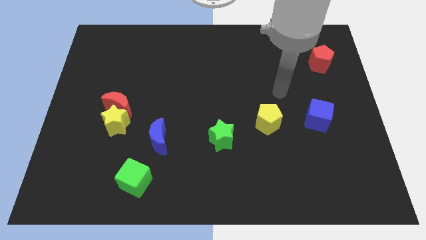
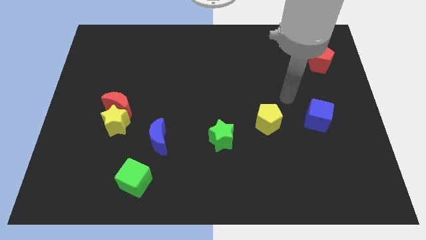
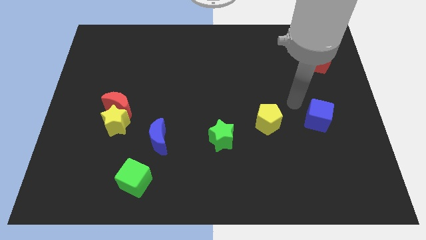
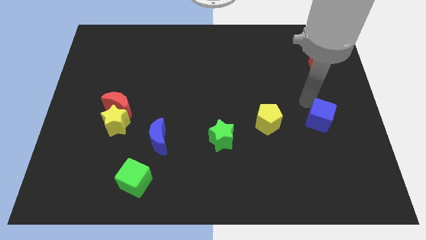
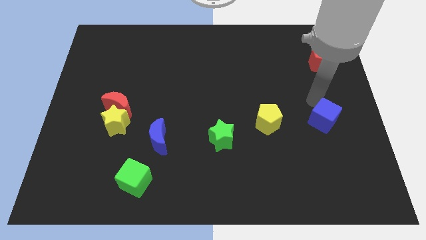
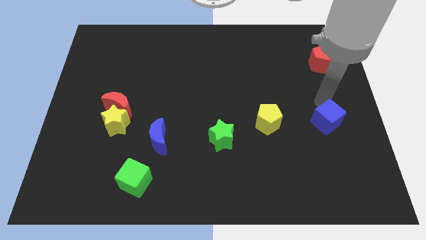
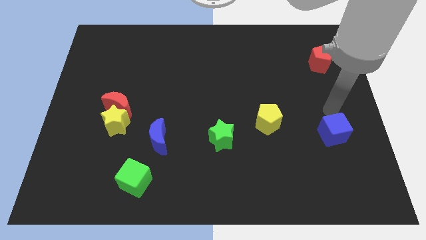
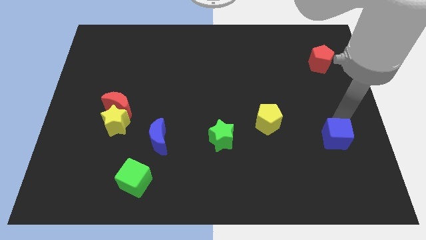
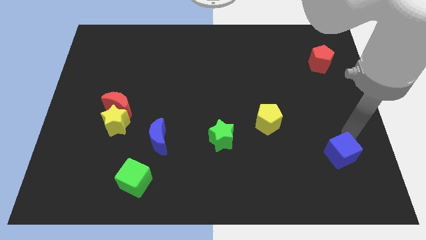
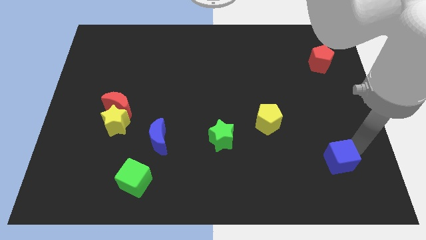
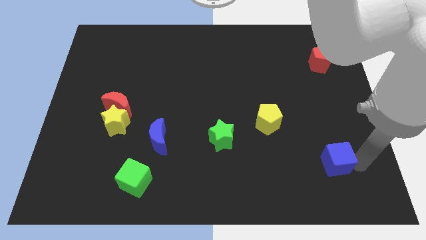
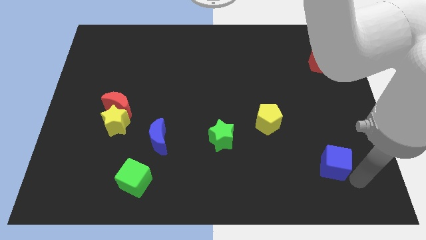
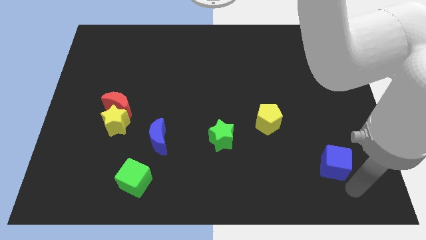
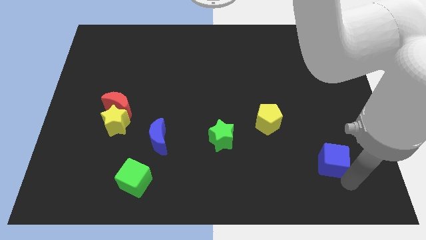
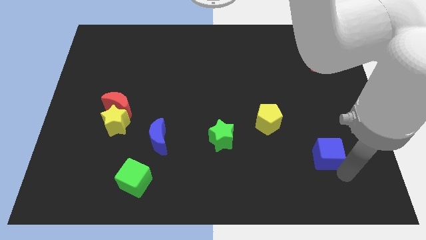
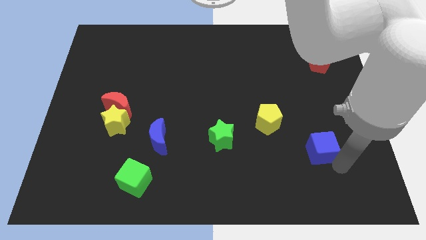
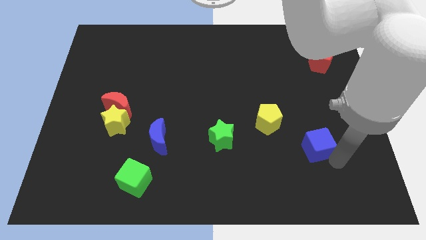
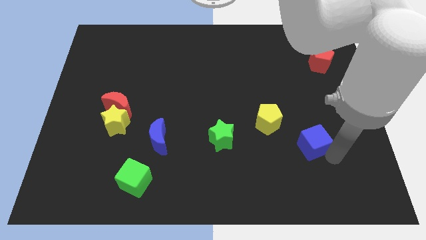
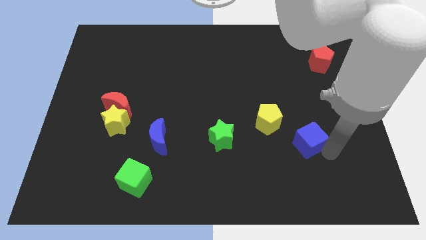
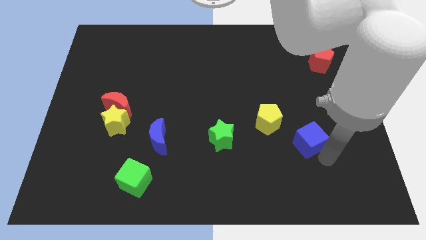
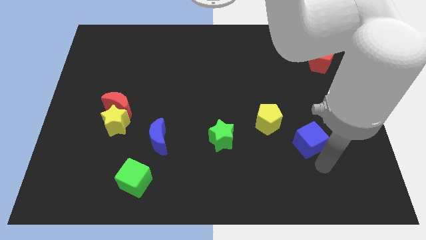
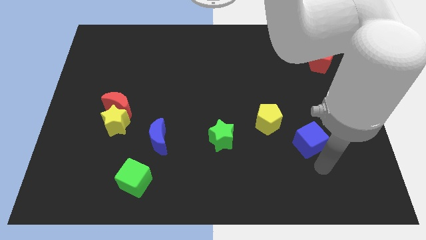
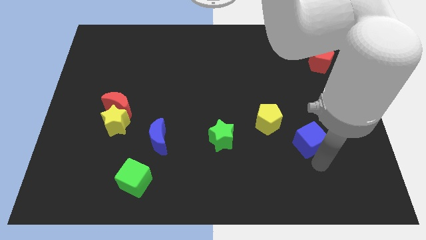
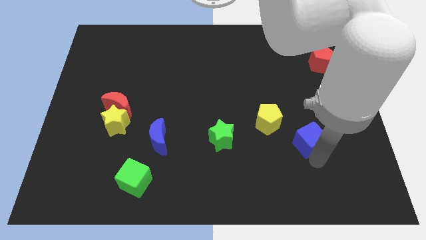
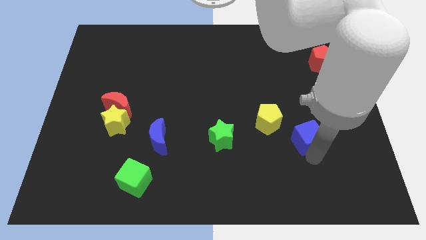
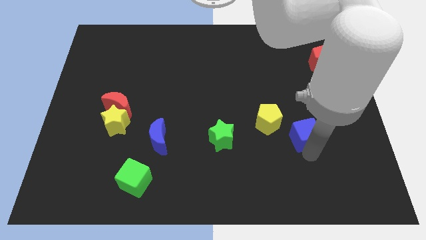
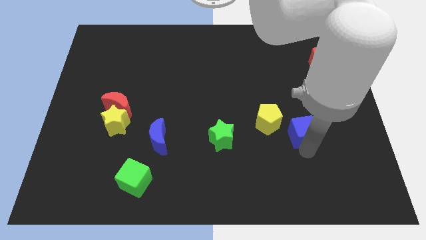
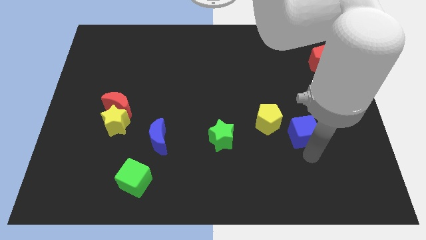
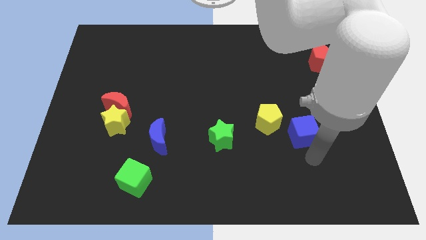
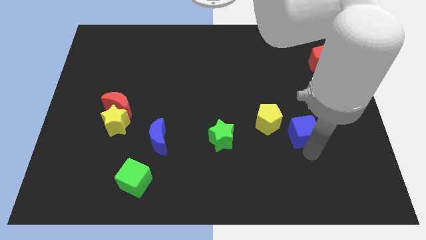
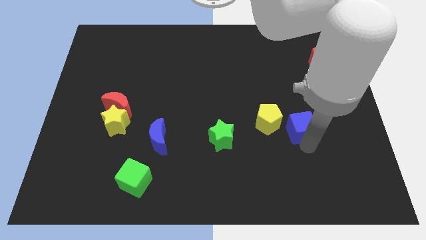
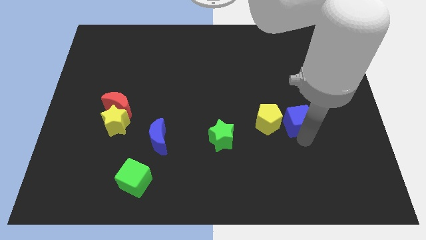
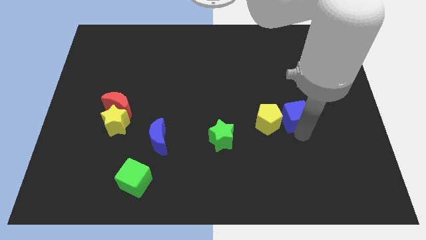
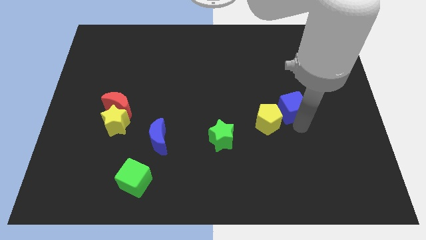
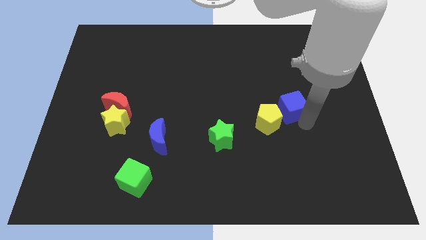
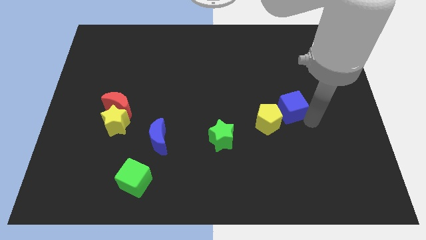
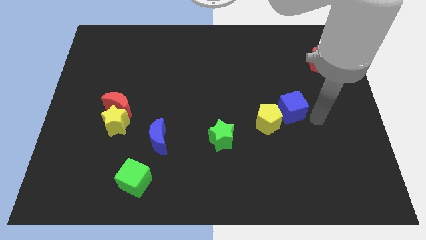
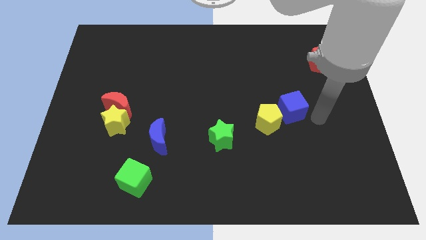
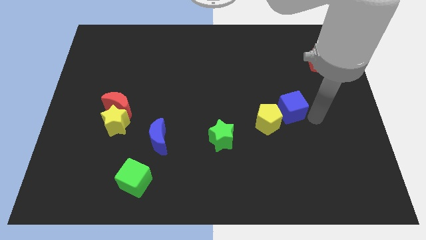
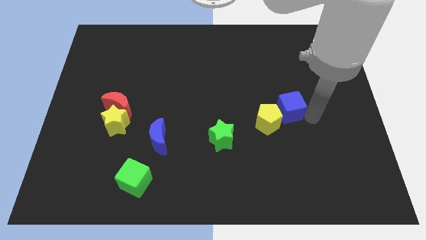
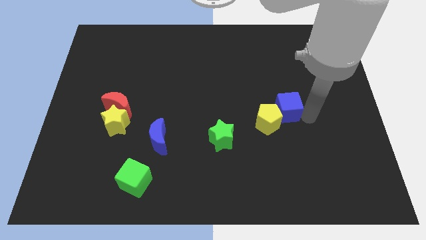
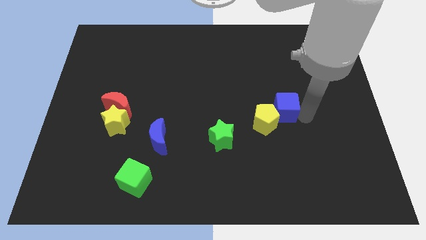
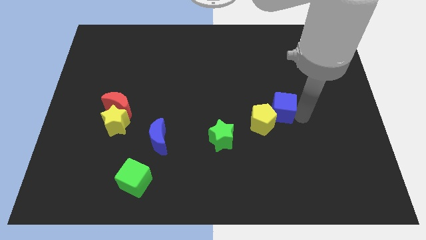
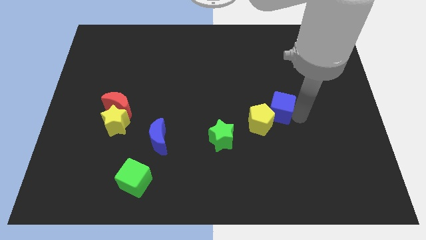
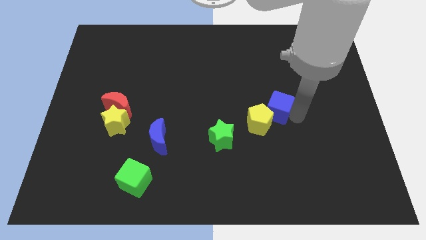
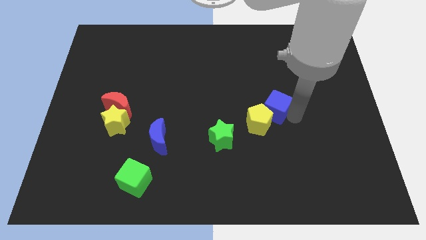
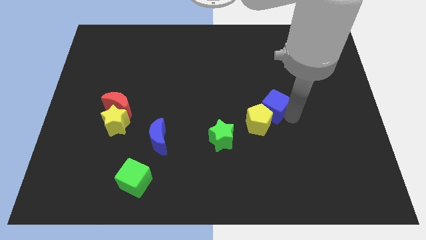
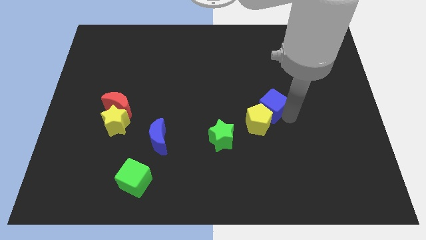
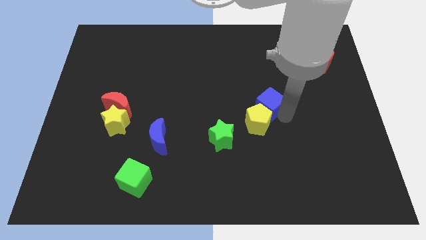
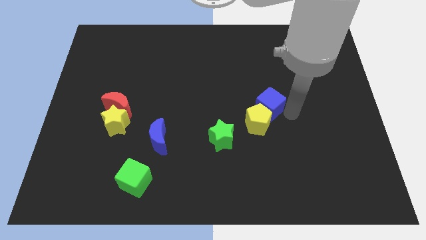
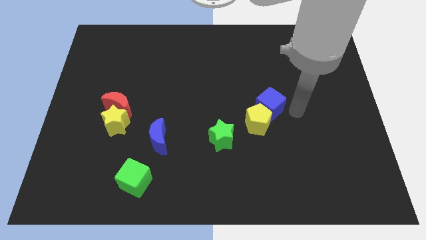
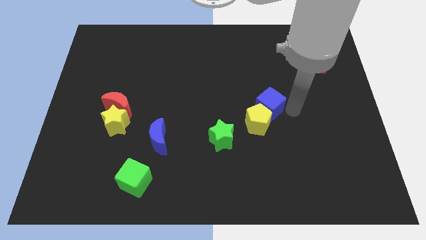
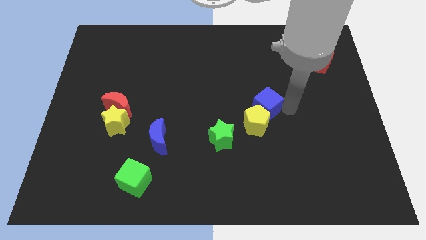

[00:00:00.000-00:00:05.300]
slide the blue cube to the center

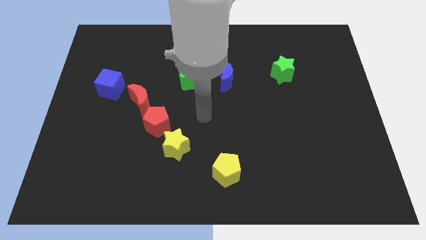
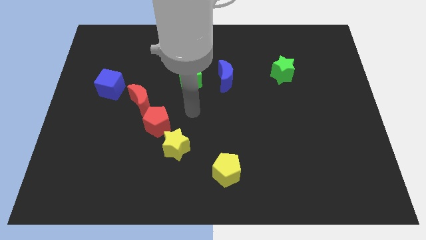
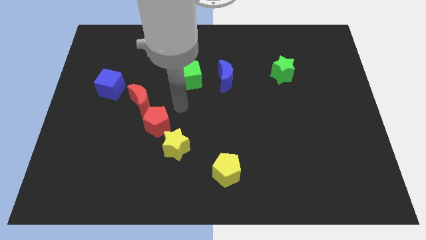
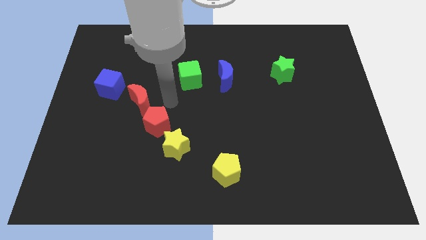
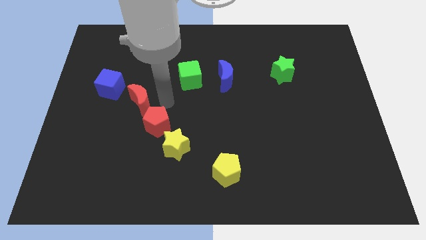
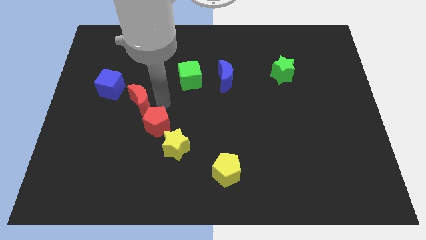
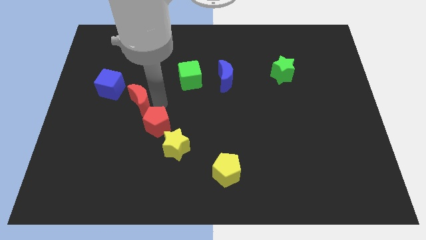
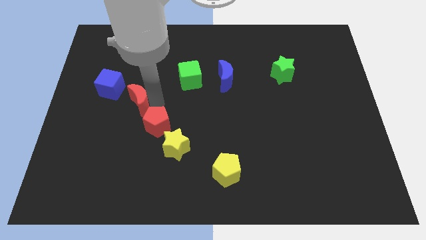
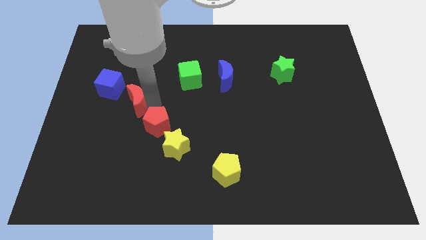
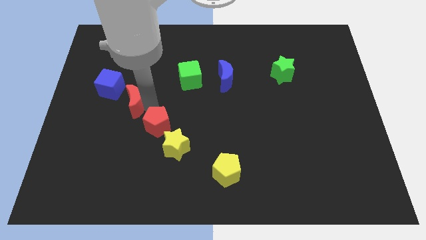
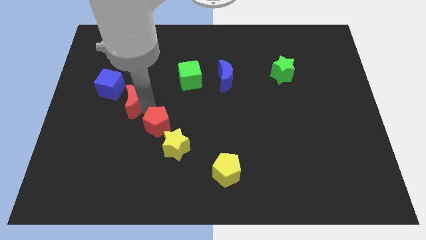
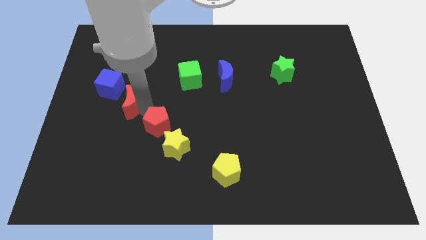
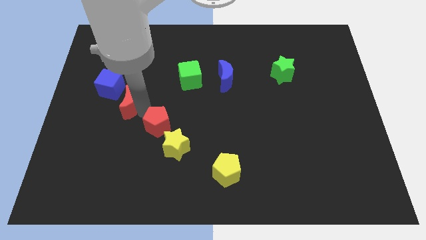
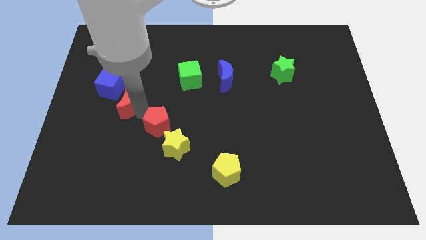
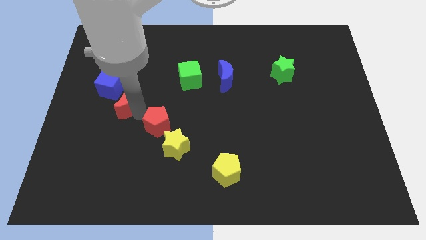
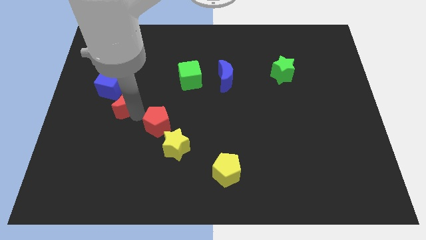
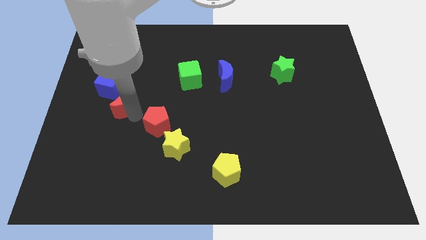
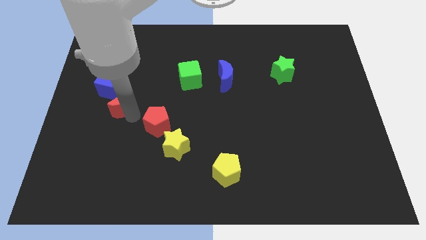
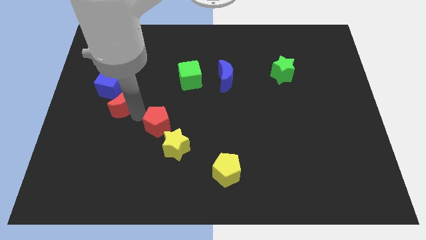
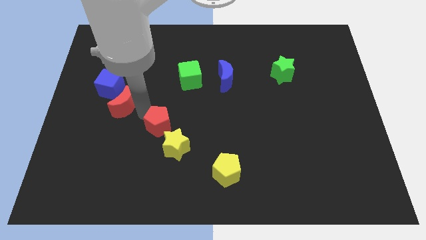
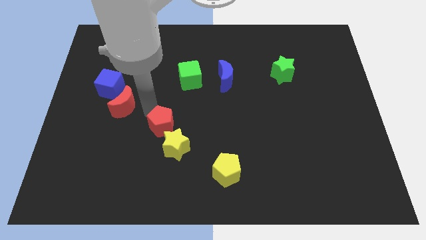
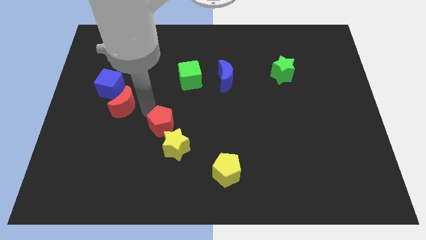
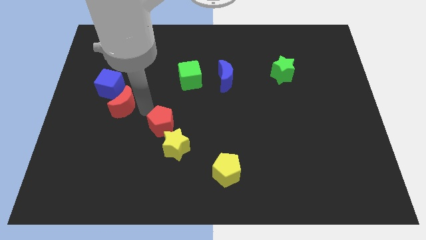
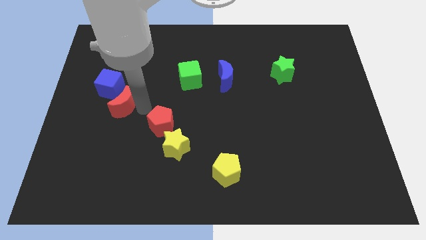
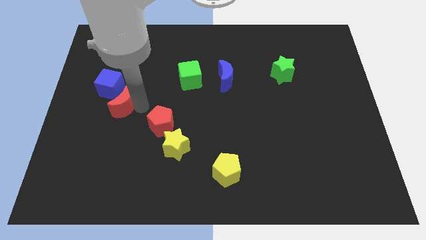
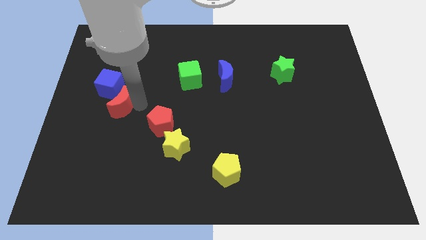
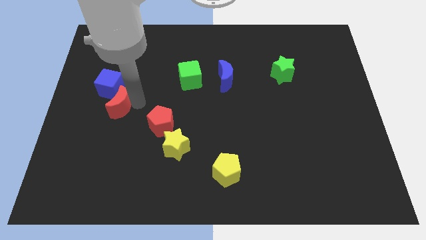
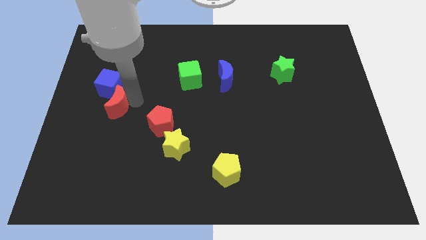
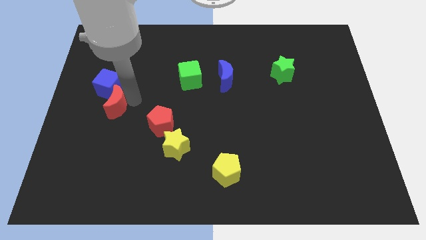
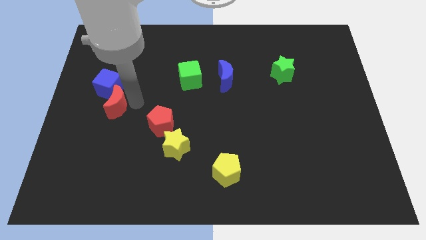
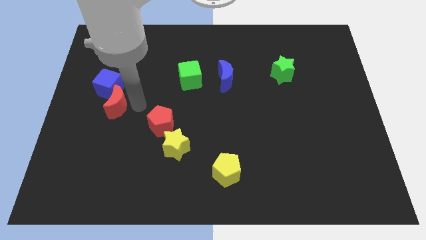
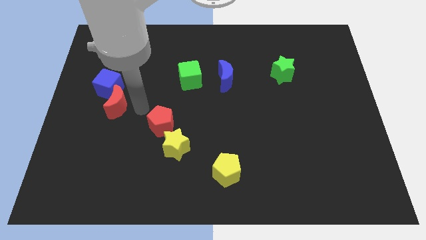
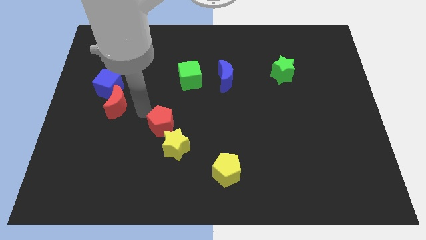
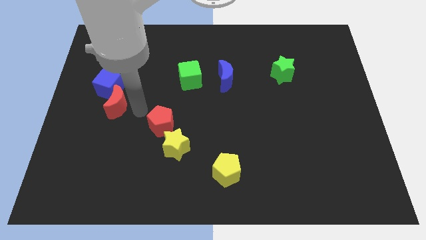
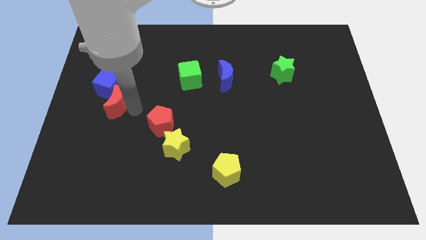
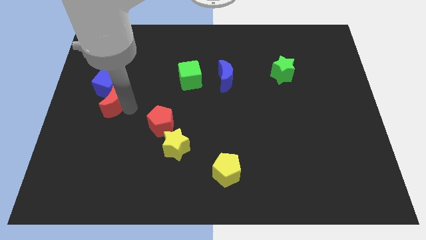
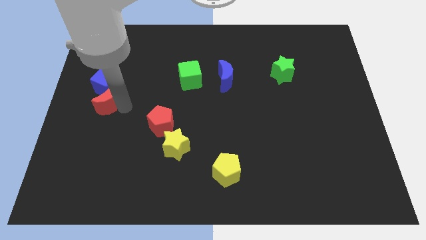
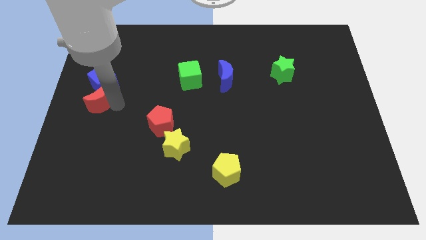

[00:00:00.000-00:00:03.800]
slide the red moon to the left side of the board
